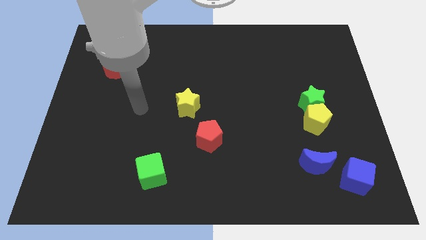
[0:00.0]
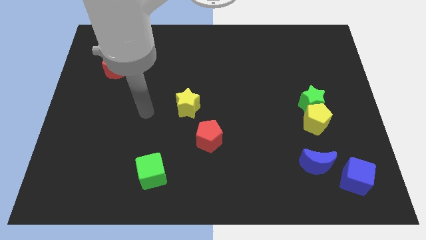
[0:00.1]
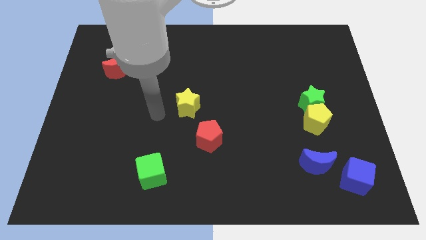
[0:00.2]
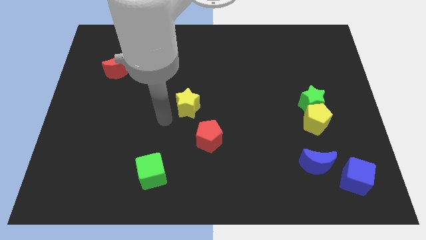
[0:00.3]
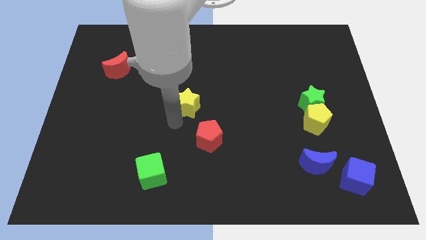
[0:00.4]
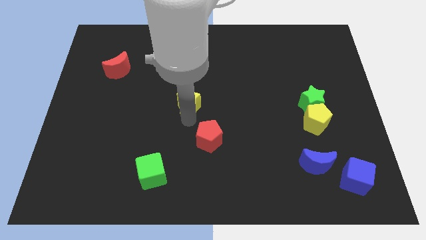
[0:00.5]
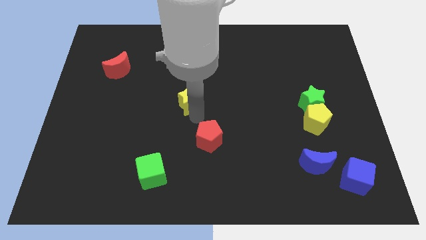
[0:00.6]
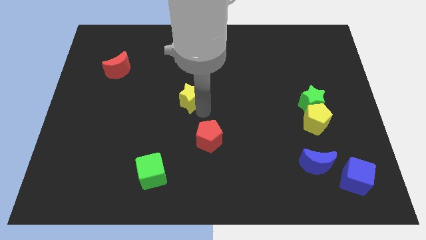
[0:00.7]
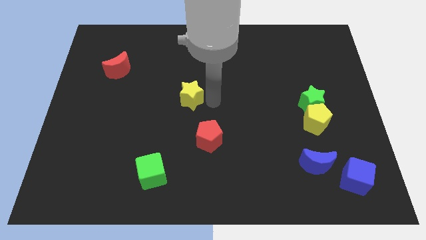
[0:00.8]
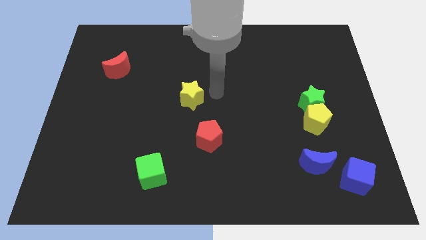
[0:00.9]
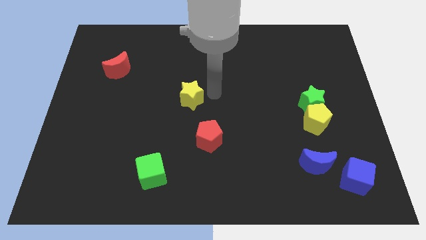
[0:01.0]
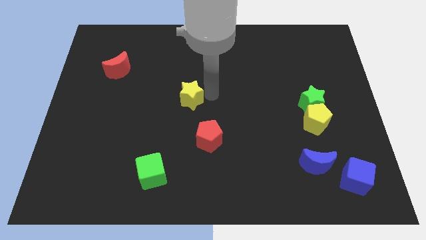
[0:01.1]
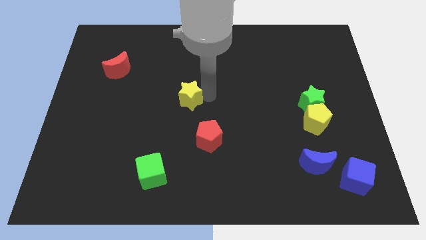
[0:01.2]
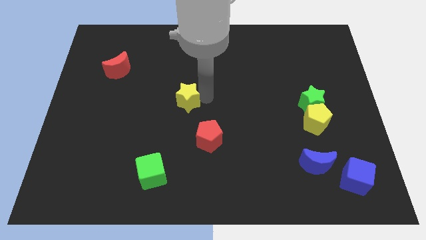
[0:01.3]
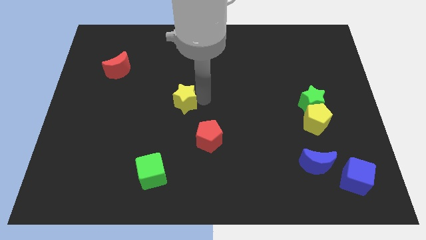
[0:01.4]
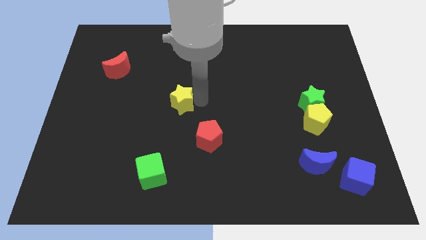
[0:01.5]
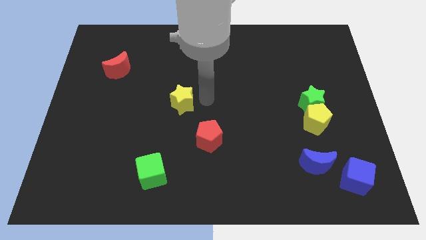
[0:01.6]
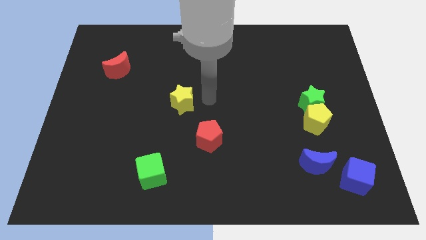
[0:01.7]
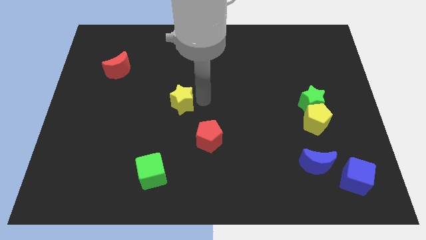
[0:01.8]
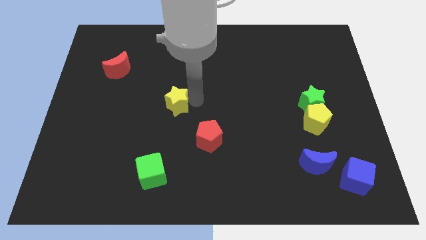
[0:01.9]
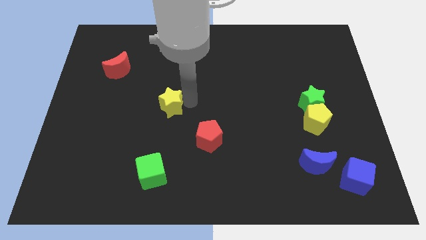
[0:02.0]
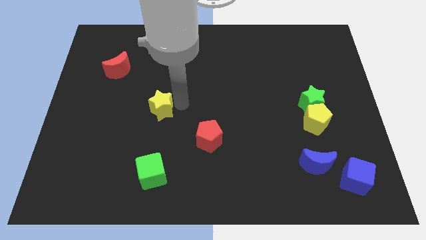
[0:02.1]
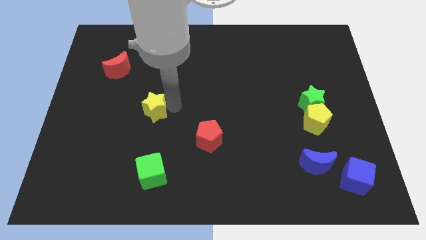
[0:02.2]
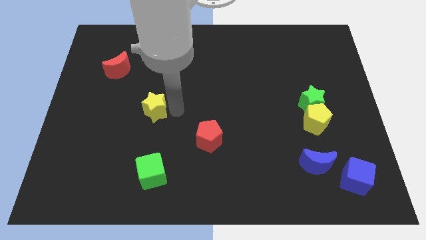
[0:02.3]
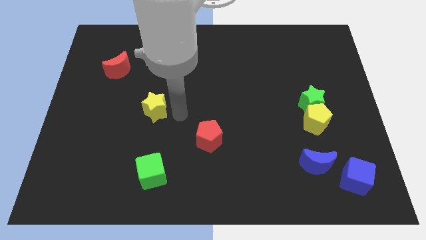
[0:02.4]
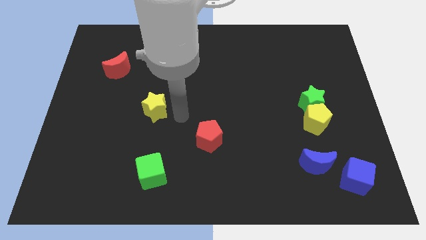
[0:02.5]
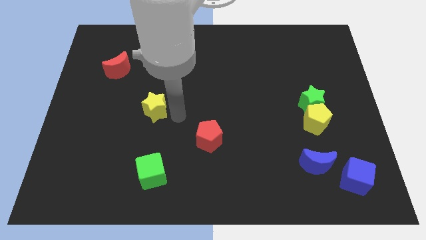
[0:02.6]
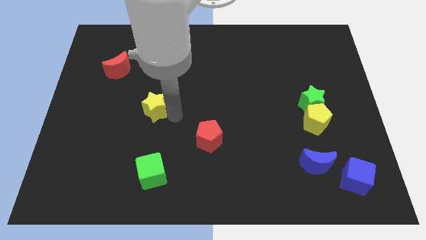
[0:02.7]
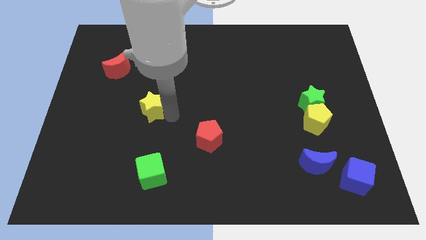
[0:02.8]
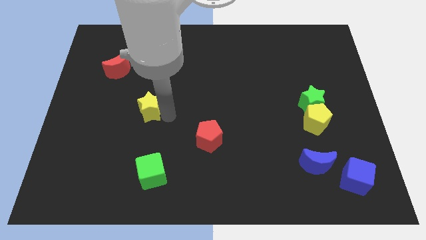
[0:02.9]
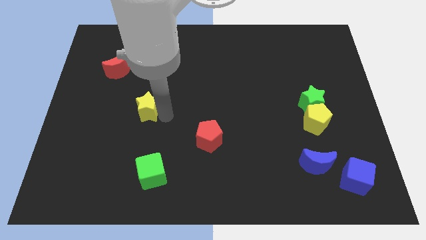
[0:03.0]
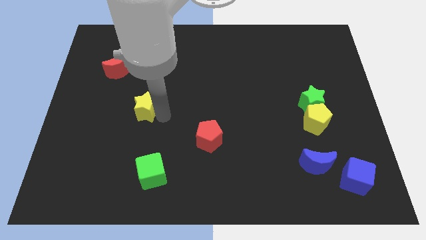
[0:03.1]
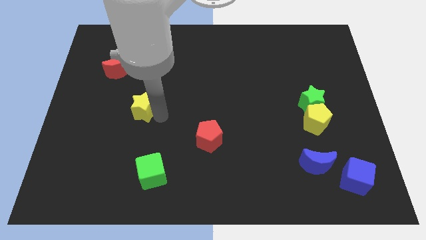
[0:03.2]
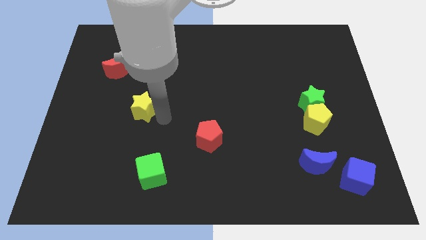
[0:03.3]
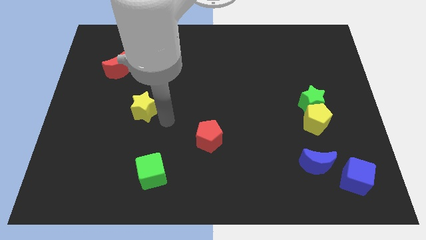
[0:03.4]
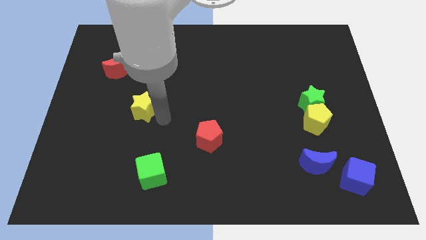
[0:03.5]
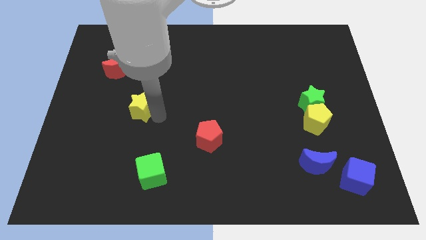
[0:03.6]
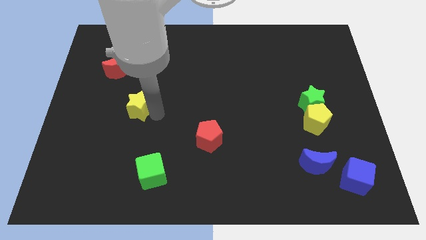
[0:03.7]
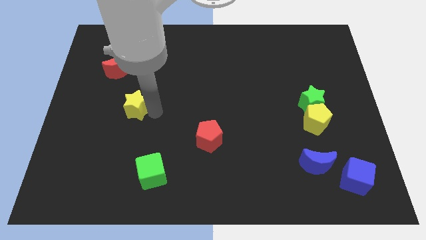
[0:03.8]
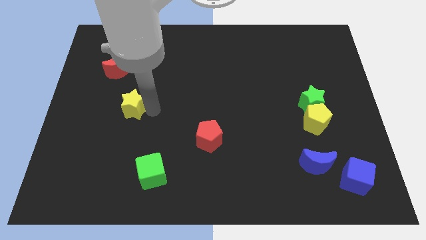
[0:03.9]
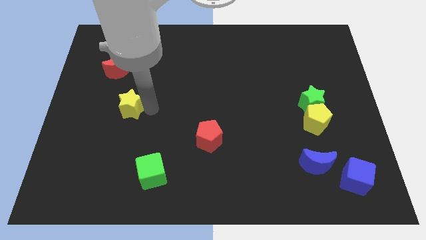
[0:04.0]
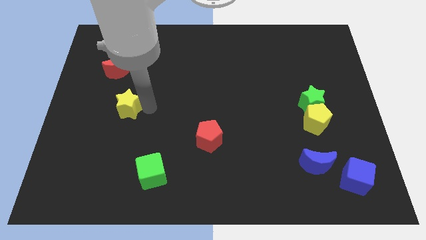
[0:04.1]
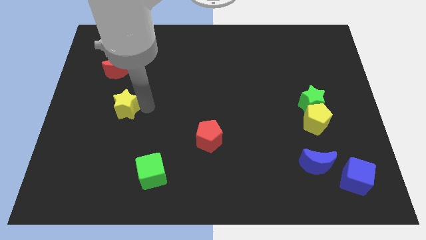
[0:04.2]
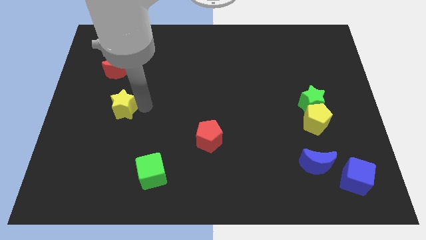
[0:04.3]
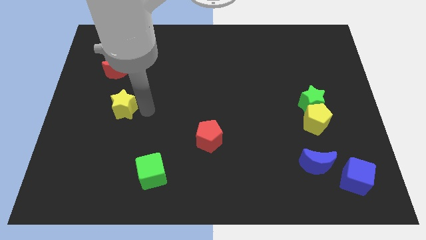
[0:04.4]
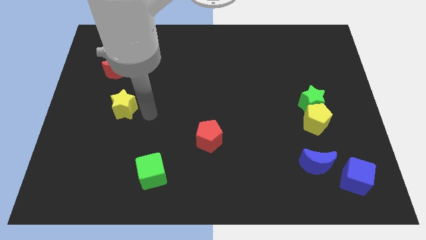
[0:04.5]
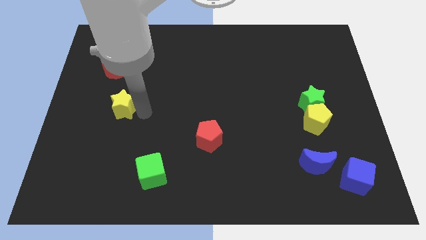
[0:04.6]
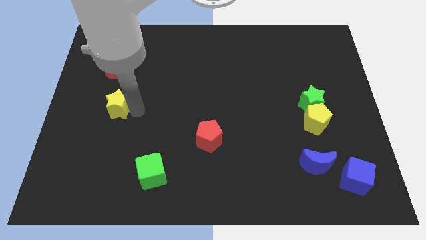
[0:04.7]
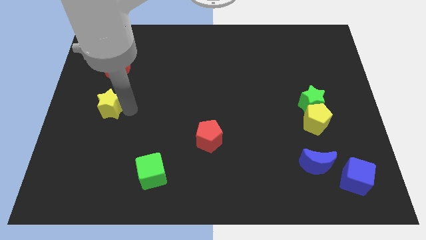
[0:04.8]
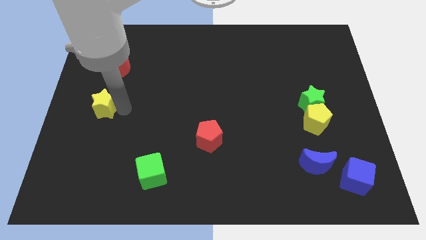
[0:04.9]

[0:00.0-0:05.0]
move the yellow star to the left side of the board

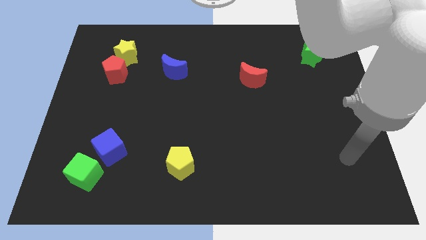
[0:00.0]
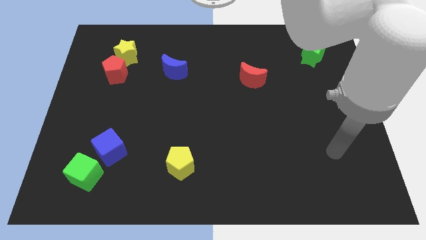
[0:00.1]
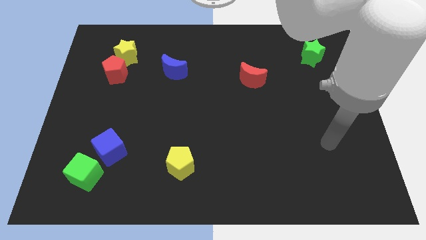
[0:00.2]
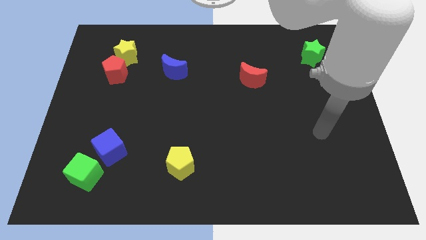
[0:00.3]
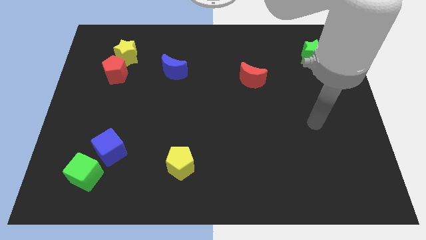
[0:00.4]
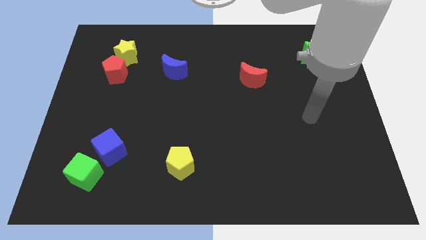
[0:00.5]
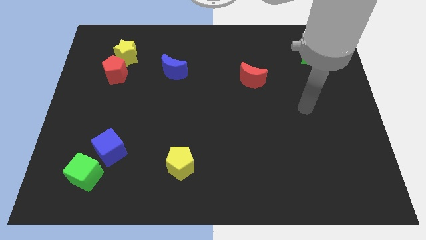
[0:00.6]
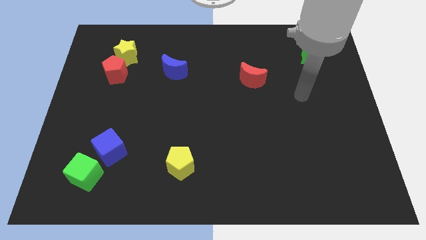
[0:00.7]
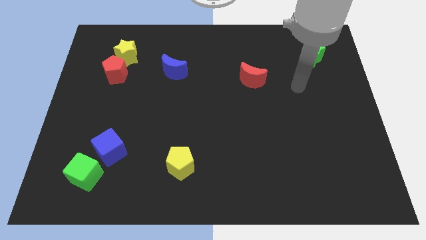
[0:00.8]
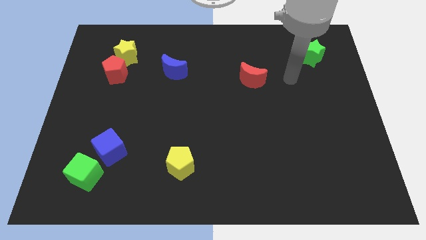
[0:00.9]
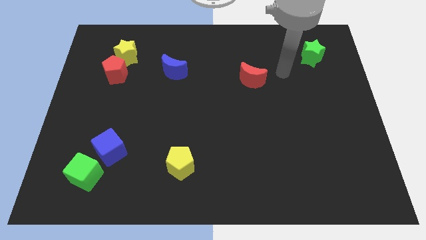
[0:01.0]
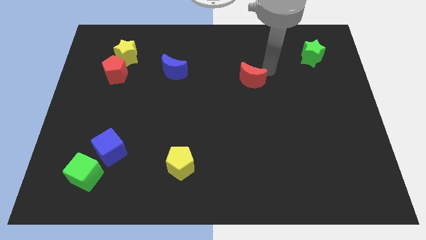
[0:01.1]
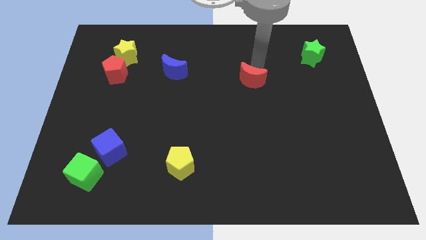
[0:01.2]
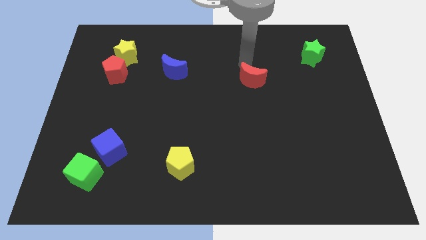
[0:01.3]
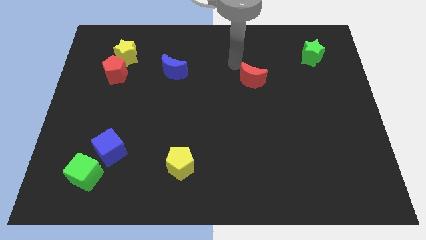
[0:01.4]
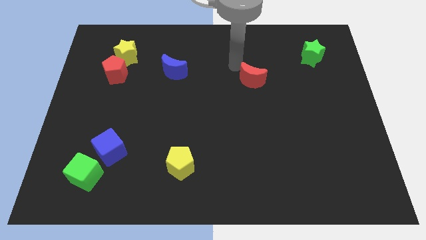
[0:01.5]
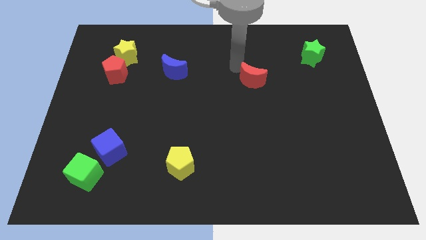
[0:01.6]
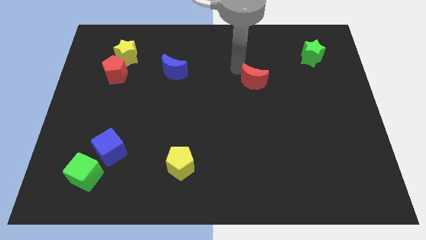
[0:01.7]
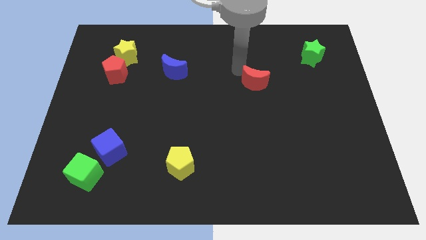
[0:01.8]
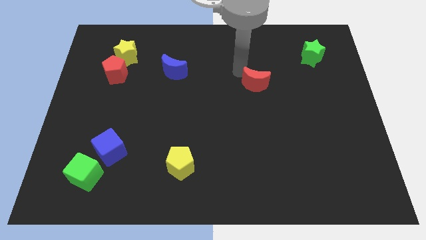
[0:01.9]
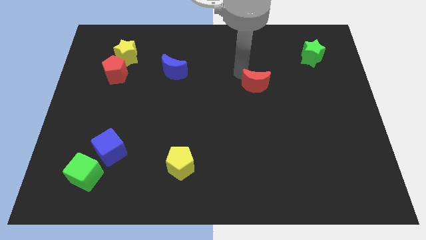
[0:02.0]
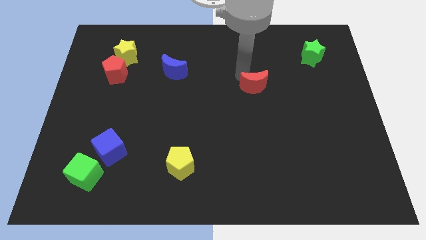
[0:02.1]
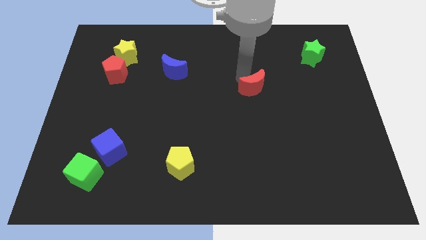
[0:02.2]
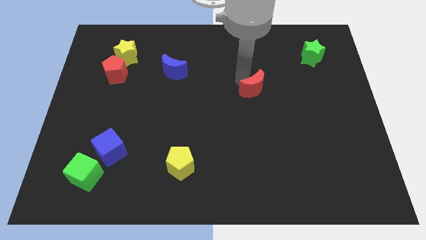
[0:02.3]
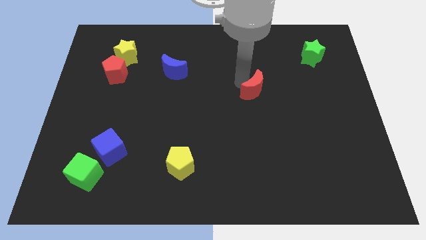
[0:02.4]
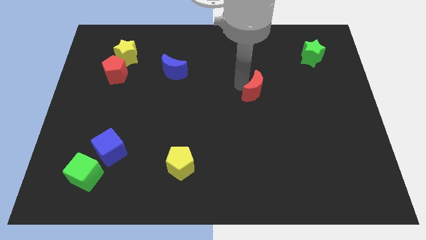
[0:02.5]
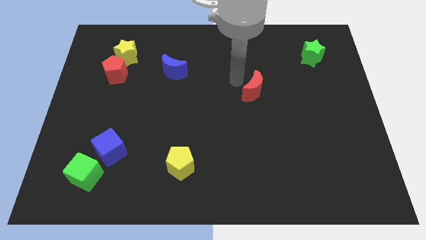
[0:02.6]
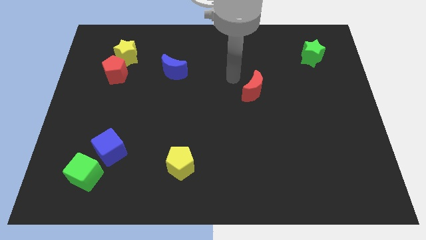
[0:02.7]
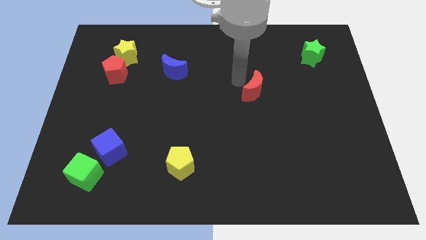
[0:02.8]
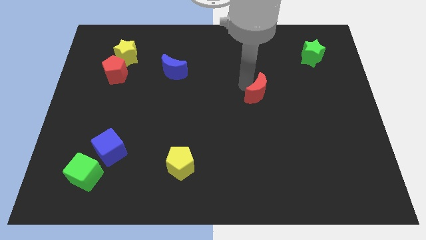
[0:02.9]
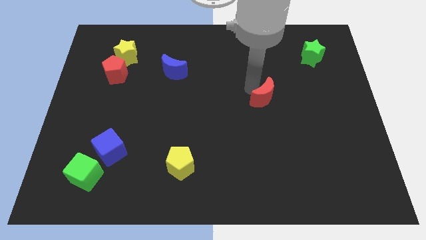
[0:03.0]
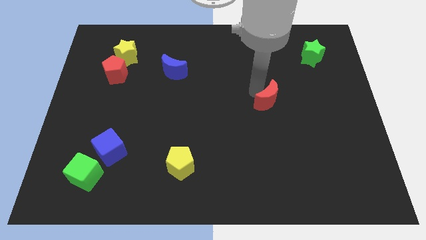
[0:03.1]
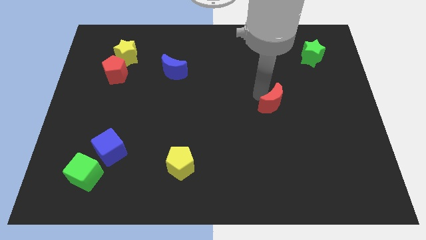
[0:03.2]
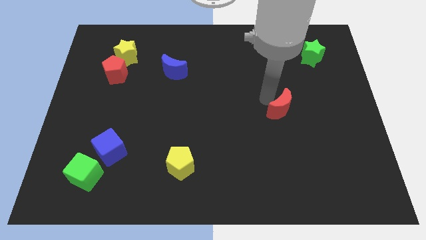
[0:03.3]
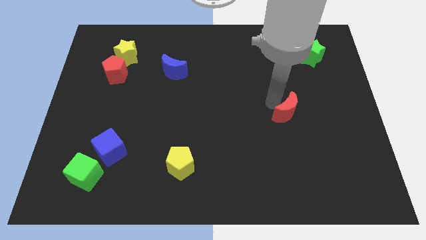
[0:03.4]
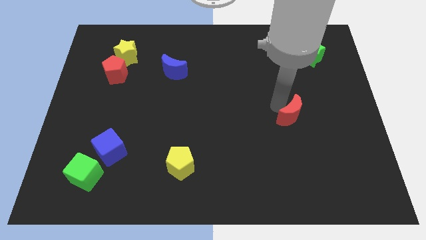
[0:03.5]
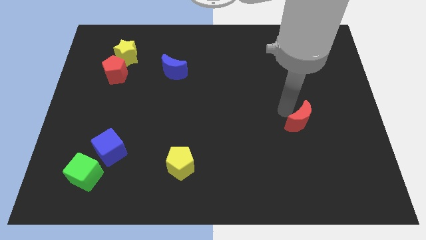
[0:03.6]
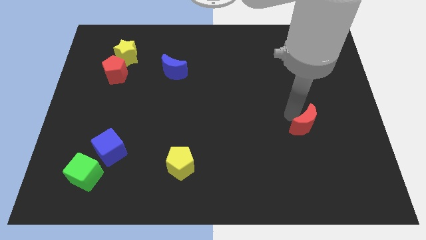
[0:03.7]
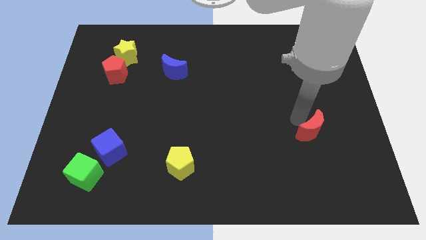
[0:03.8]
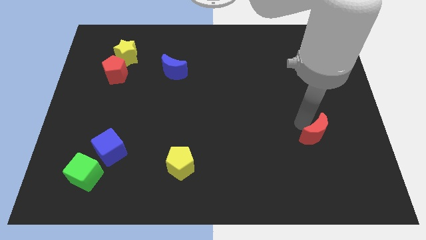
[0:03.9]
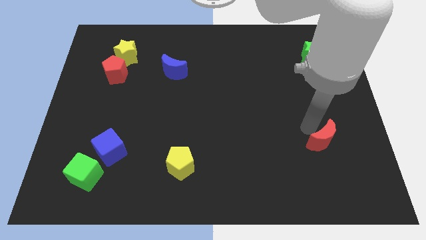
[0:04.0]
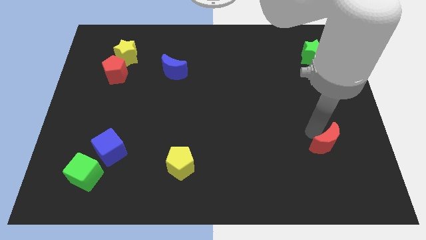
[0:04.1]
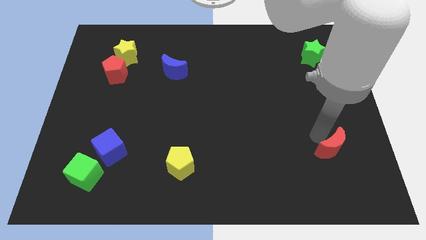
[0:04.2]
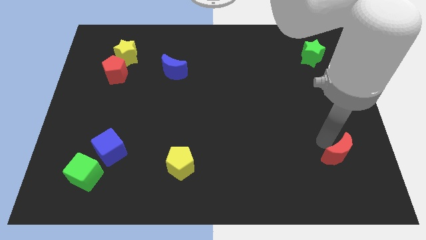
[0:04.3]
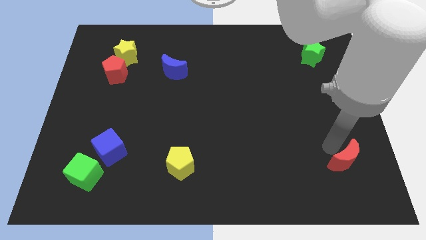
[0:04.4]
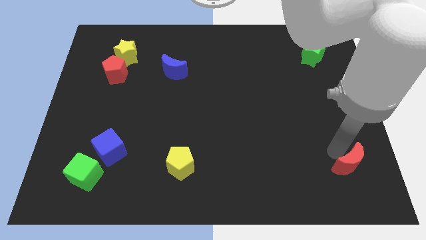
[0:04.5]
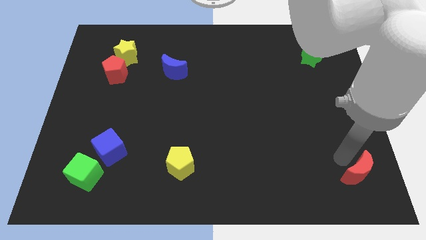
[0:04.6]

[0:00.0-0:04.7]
move the red moon to the bottom right of the board
